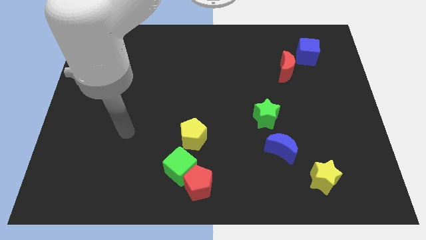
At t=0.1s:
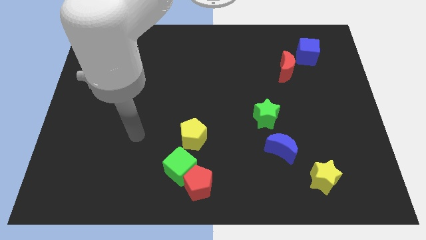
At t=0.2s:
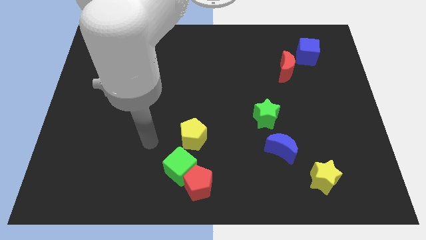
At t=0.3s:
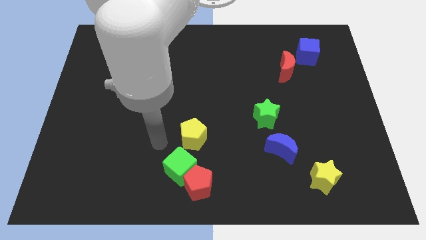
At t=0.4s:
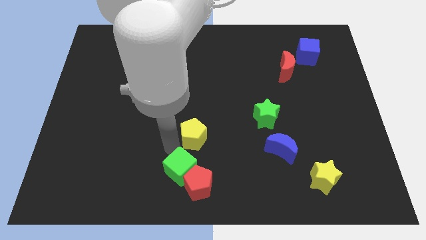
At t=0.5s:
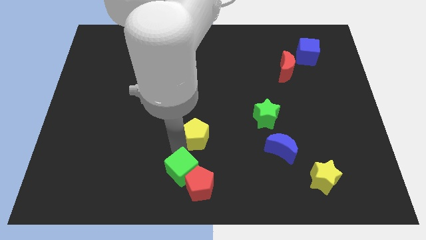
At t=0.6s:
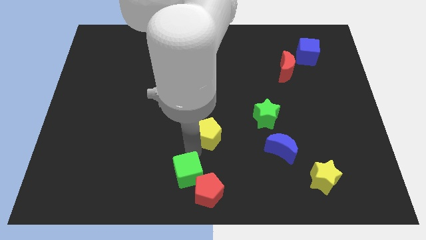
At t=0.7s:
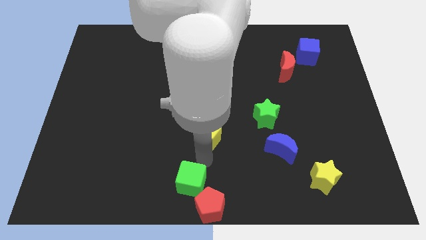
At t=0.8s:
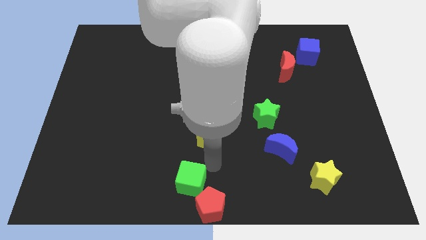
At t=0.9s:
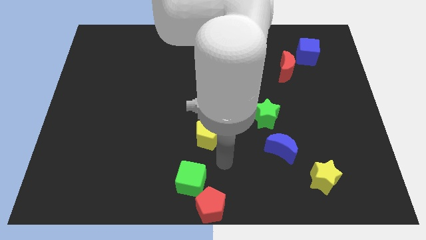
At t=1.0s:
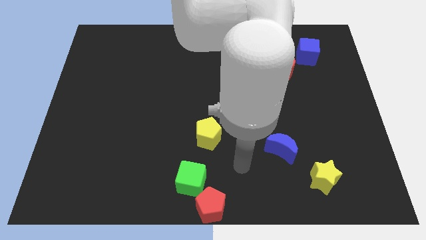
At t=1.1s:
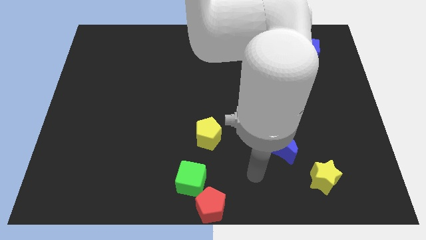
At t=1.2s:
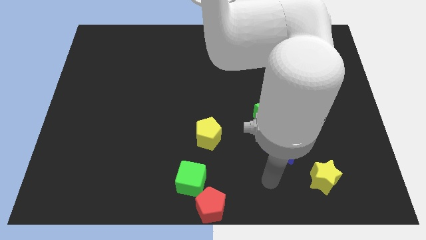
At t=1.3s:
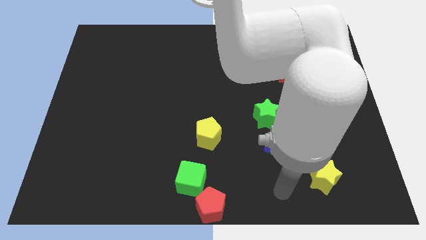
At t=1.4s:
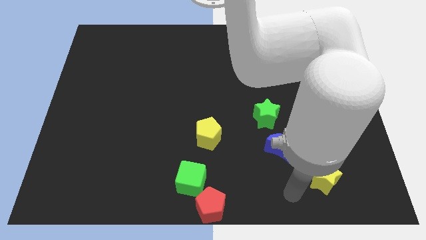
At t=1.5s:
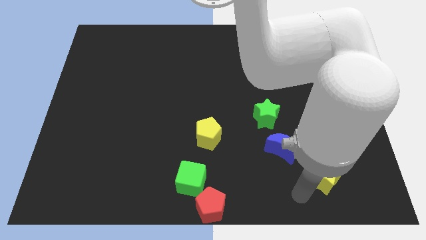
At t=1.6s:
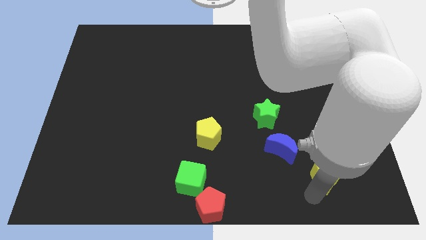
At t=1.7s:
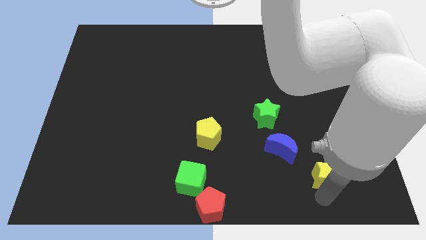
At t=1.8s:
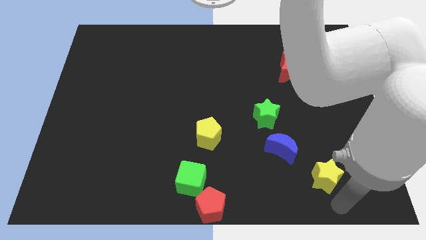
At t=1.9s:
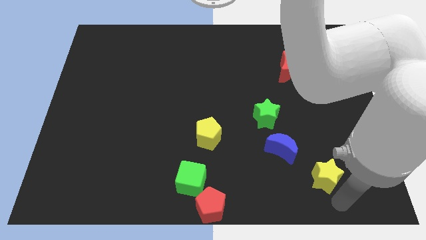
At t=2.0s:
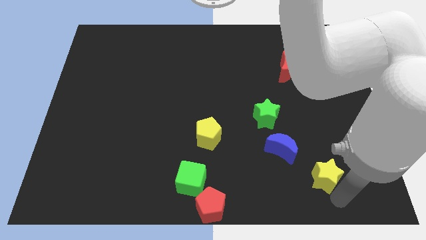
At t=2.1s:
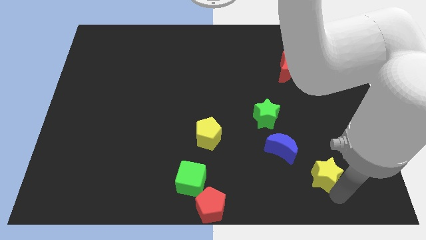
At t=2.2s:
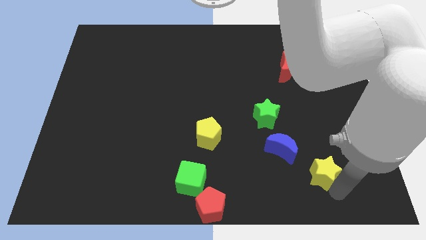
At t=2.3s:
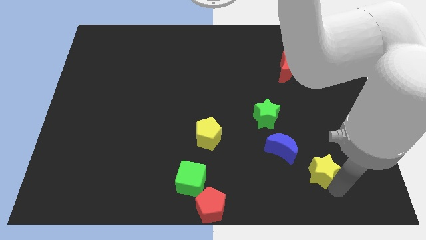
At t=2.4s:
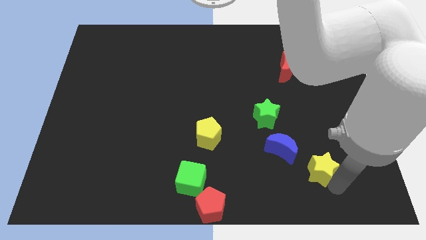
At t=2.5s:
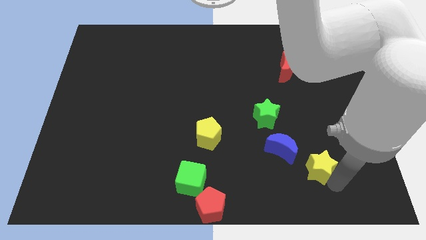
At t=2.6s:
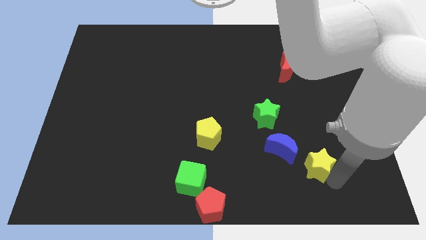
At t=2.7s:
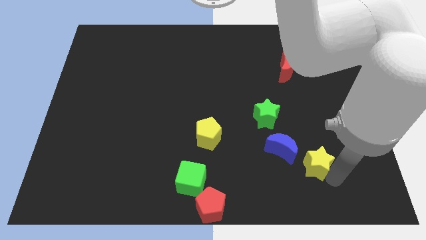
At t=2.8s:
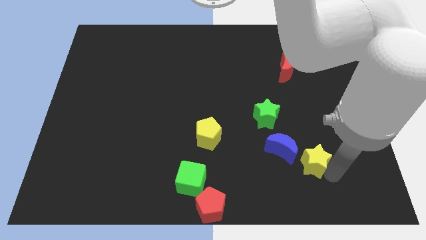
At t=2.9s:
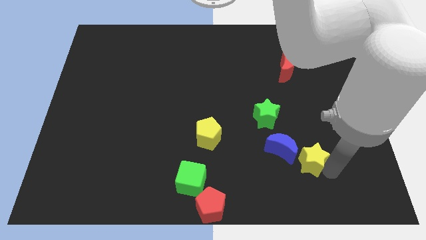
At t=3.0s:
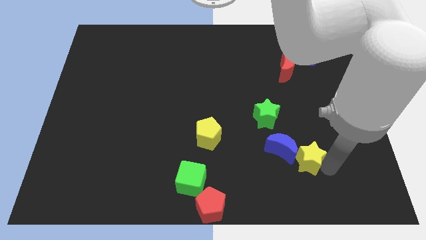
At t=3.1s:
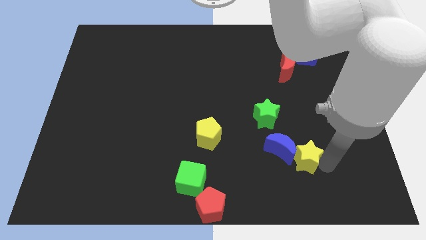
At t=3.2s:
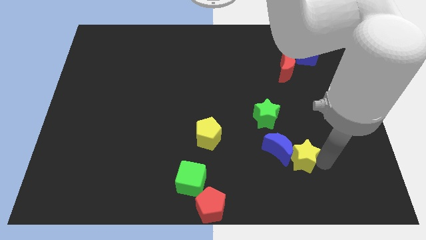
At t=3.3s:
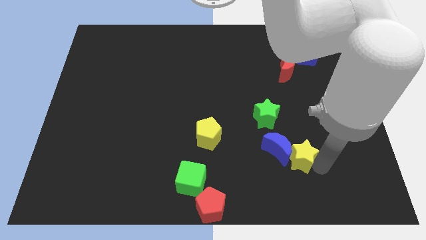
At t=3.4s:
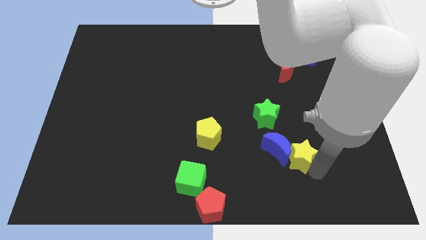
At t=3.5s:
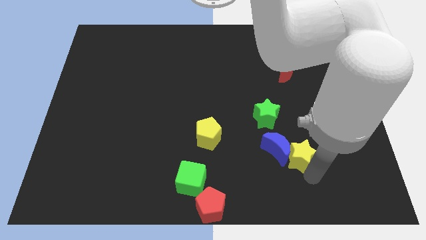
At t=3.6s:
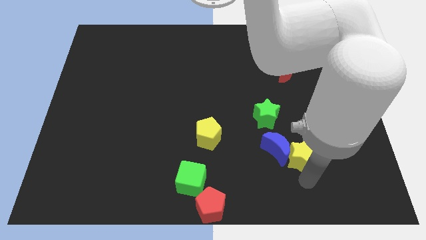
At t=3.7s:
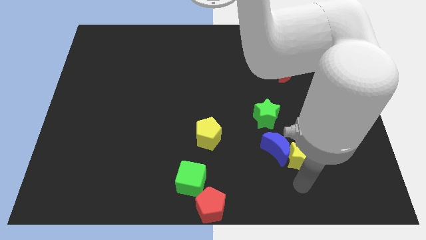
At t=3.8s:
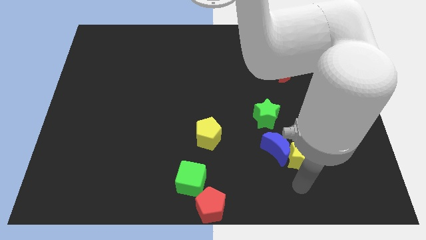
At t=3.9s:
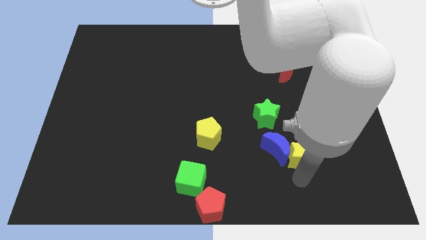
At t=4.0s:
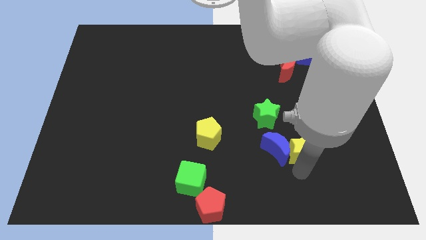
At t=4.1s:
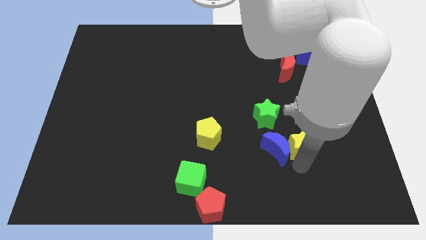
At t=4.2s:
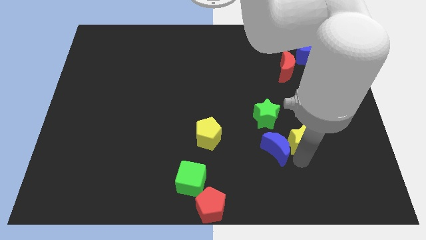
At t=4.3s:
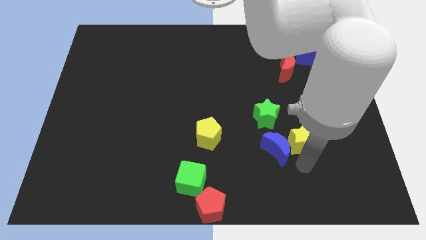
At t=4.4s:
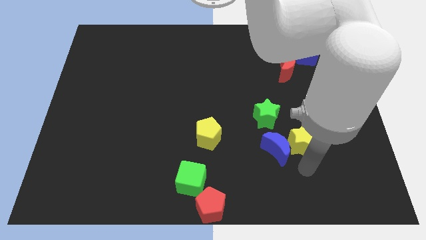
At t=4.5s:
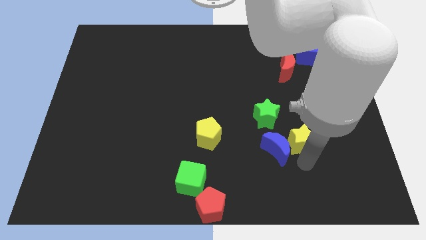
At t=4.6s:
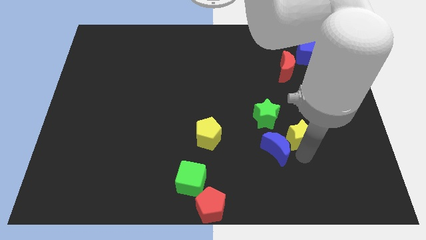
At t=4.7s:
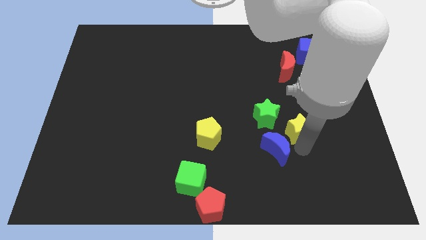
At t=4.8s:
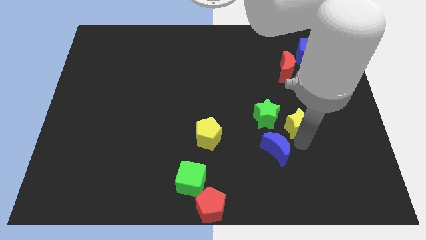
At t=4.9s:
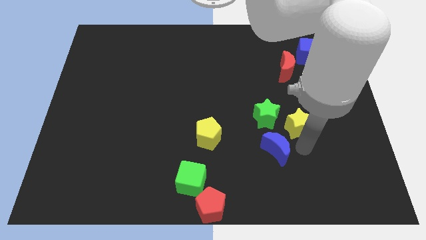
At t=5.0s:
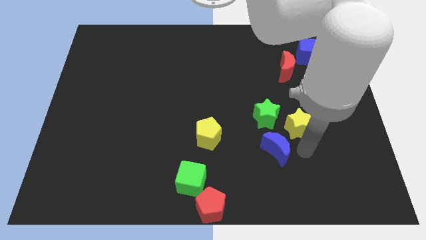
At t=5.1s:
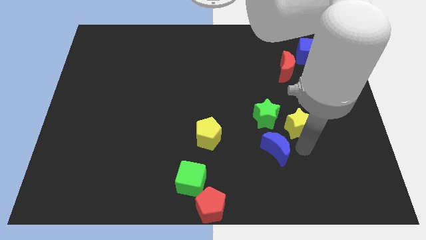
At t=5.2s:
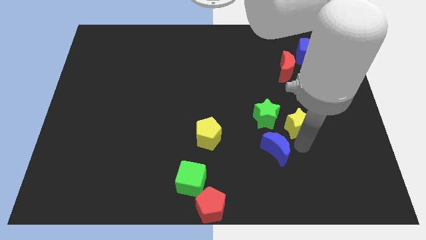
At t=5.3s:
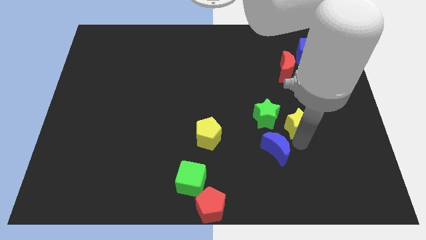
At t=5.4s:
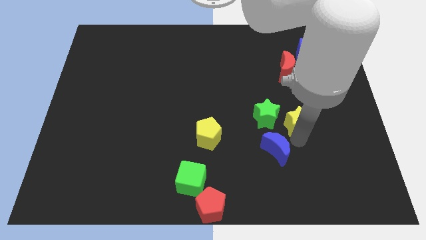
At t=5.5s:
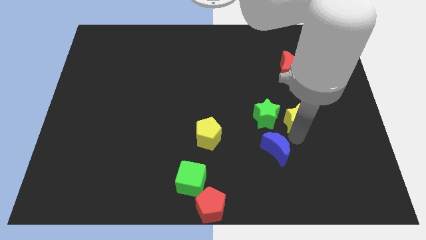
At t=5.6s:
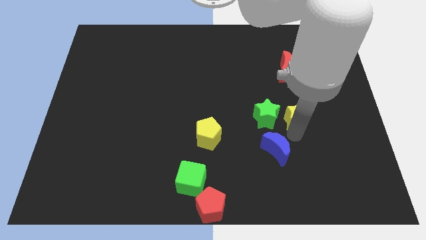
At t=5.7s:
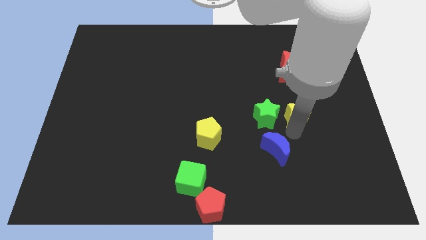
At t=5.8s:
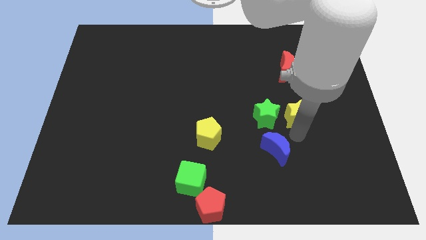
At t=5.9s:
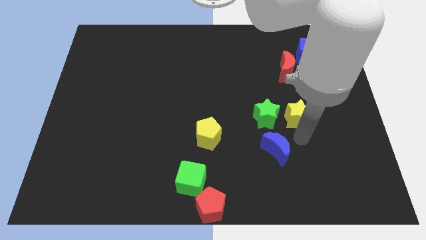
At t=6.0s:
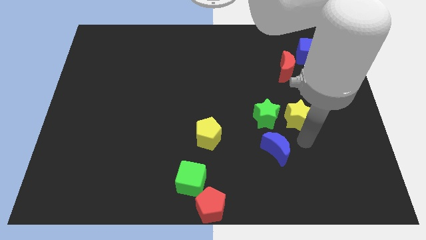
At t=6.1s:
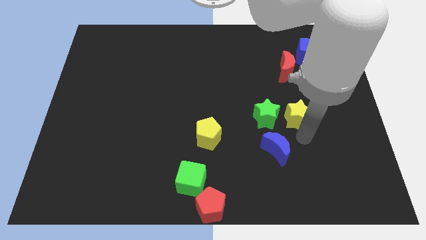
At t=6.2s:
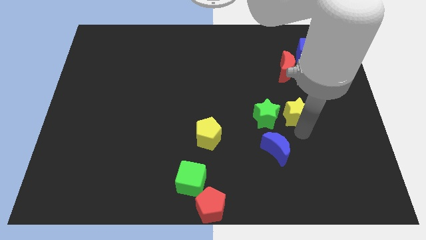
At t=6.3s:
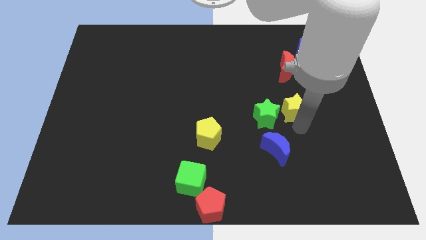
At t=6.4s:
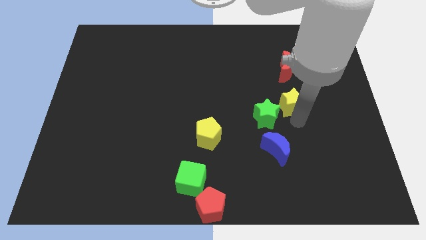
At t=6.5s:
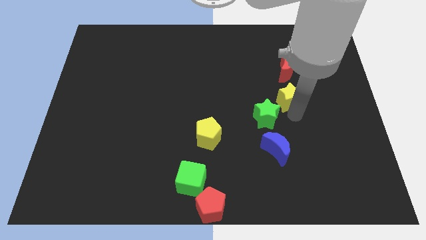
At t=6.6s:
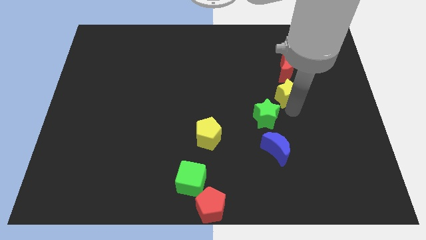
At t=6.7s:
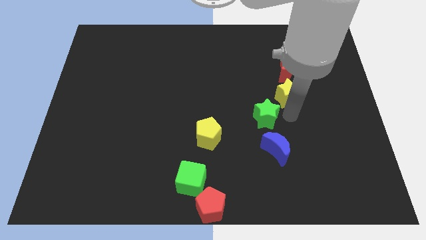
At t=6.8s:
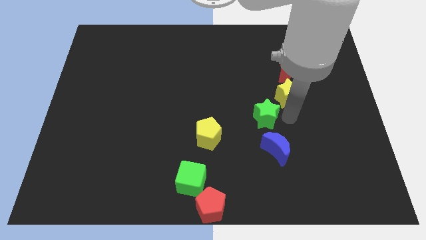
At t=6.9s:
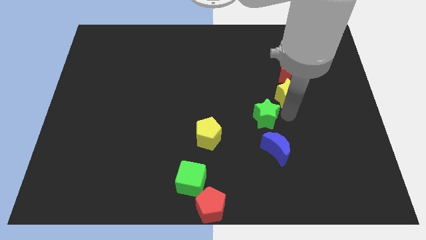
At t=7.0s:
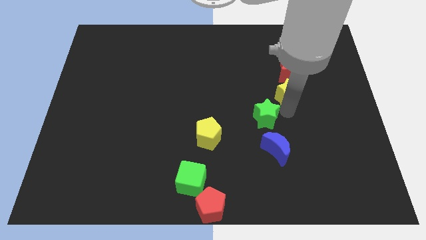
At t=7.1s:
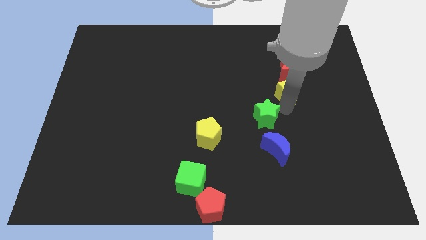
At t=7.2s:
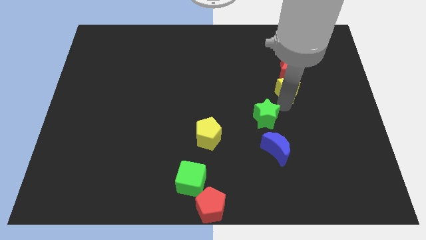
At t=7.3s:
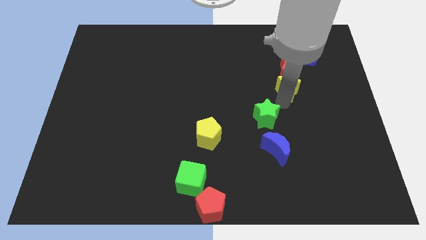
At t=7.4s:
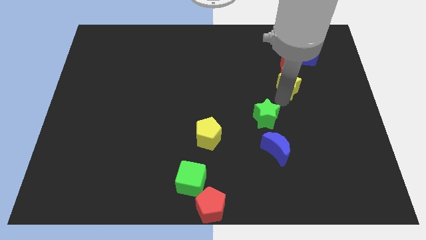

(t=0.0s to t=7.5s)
move the yellow star towards the red moon
